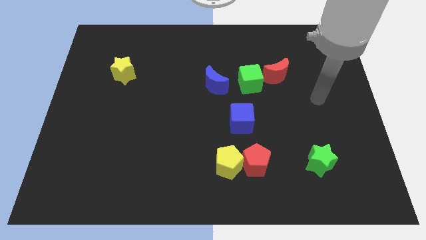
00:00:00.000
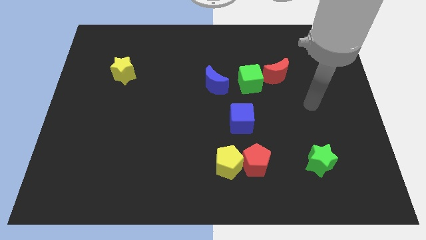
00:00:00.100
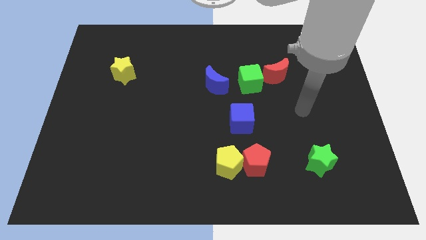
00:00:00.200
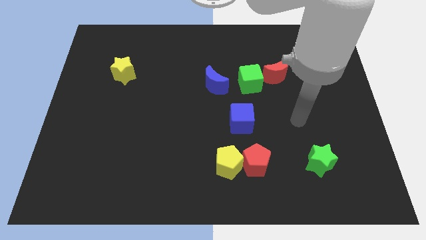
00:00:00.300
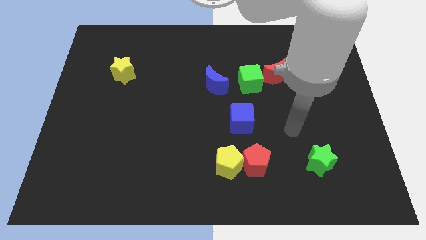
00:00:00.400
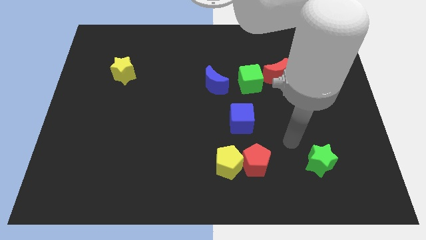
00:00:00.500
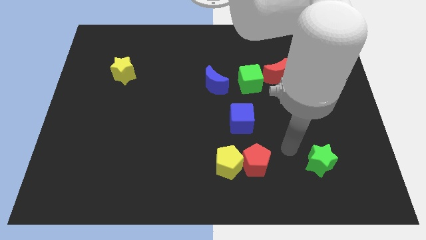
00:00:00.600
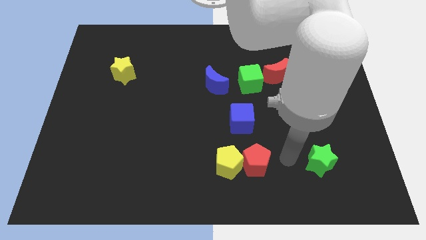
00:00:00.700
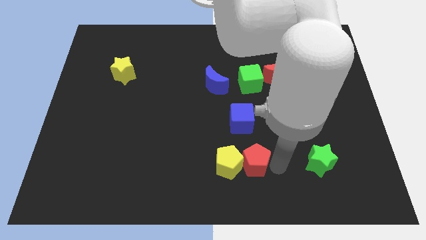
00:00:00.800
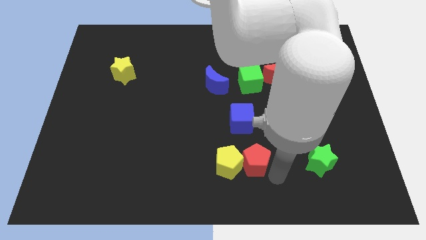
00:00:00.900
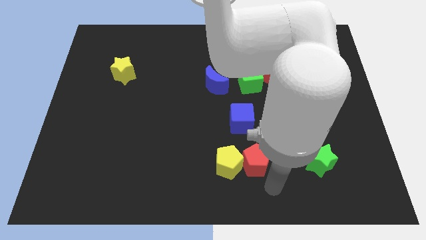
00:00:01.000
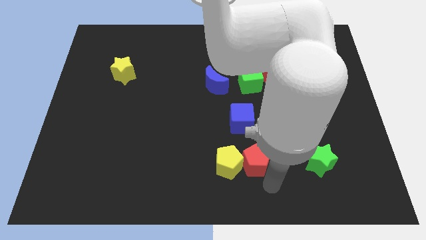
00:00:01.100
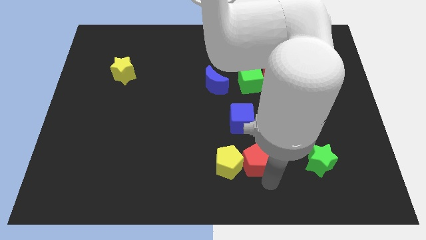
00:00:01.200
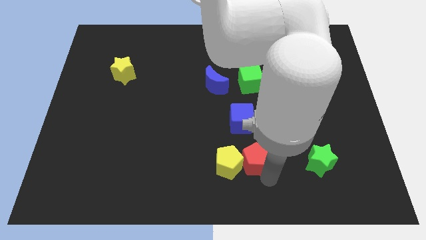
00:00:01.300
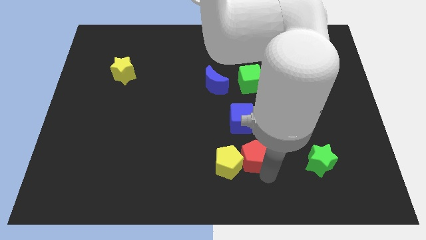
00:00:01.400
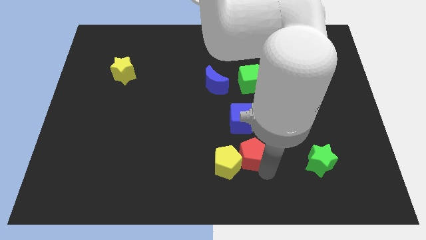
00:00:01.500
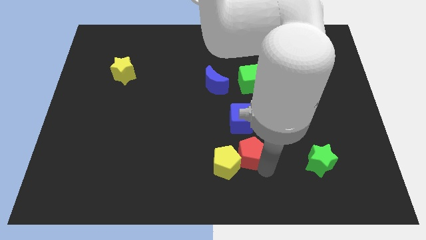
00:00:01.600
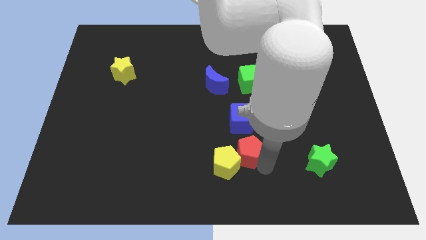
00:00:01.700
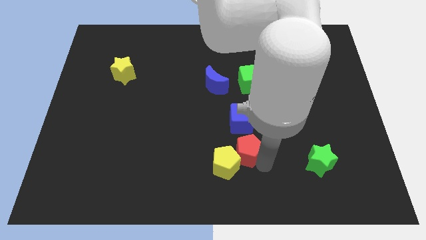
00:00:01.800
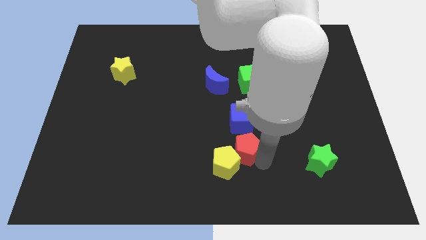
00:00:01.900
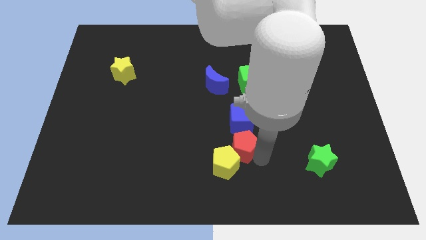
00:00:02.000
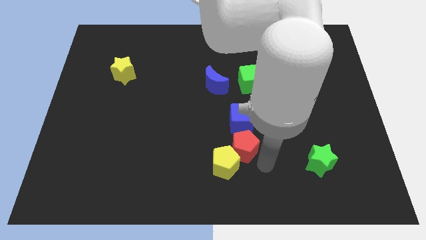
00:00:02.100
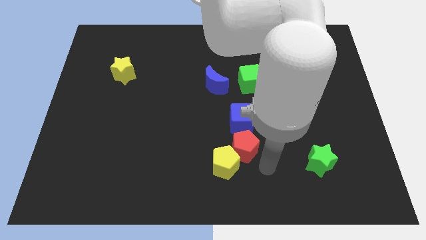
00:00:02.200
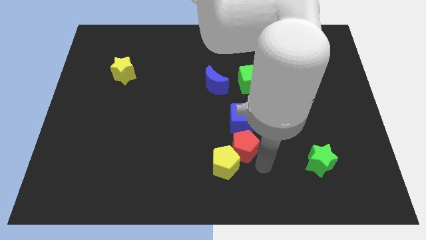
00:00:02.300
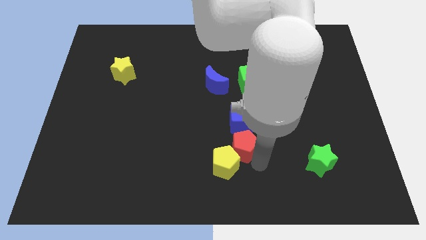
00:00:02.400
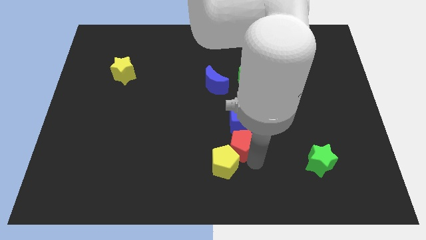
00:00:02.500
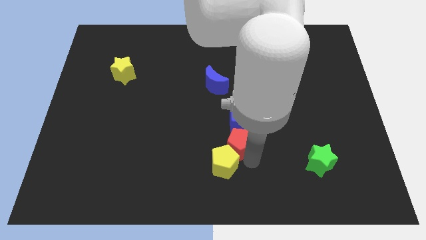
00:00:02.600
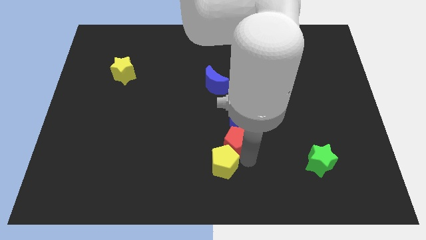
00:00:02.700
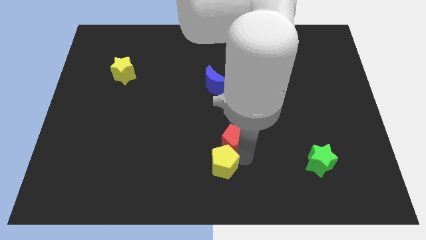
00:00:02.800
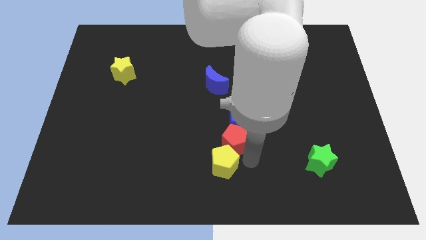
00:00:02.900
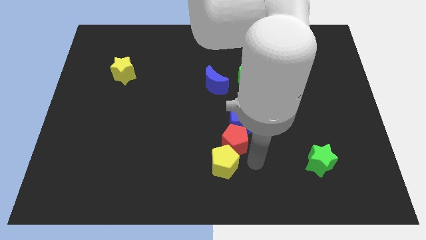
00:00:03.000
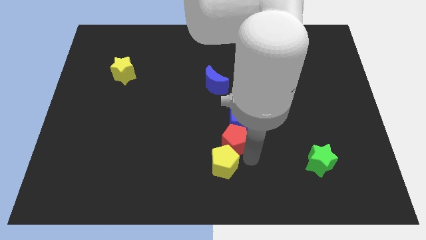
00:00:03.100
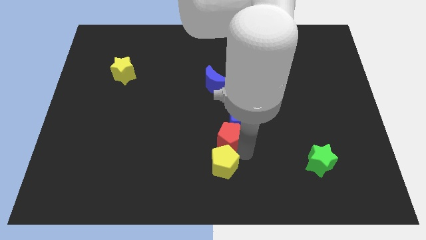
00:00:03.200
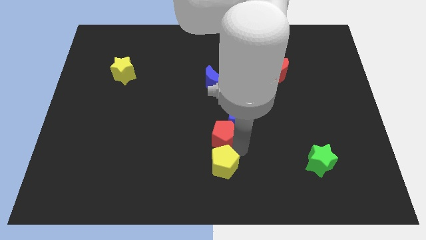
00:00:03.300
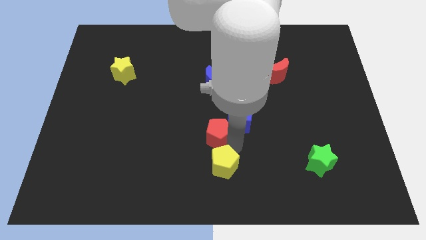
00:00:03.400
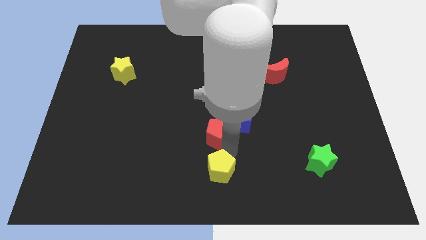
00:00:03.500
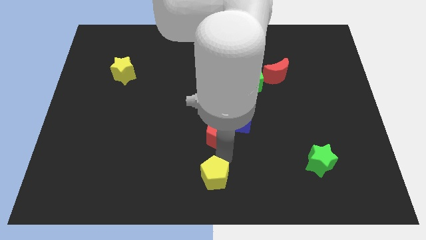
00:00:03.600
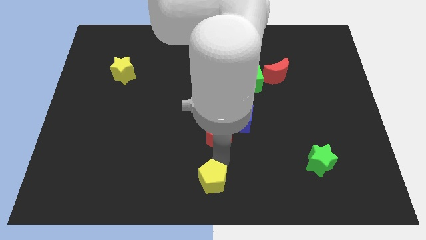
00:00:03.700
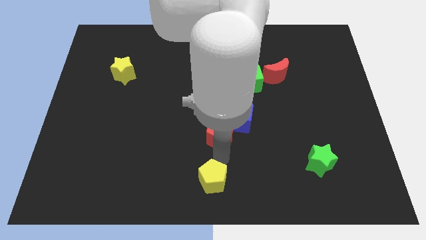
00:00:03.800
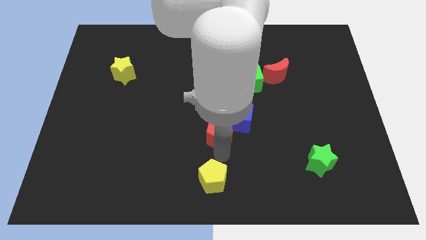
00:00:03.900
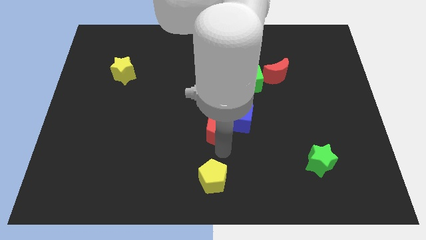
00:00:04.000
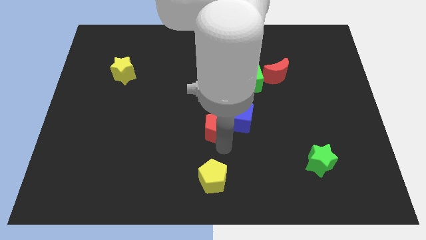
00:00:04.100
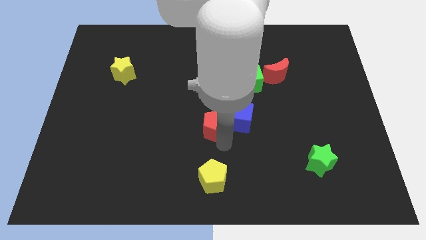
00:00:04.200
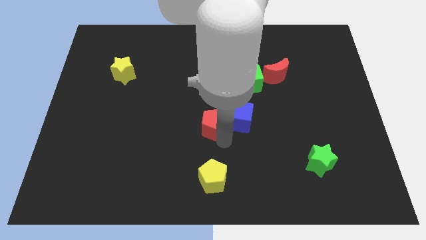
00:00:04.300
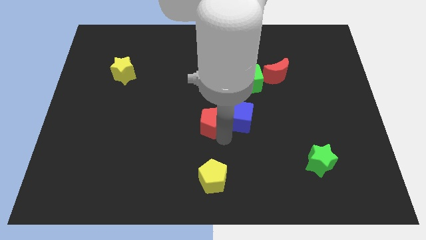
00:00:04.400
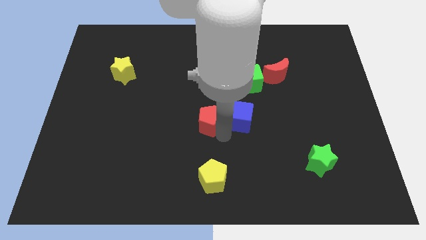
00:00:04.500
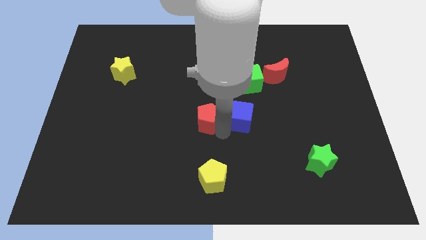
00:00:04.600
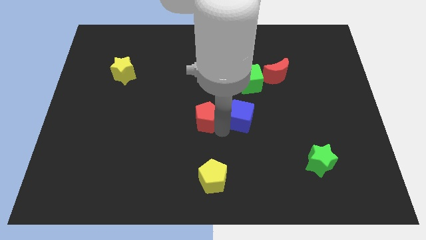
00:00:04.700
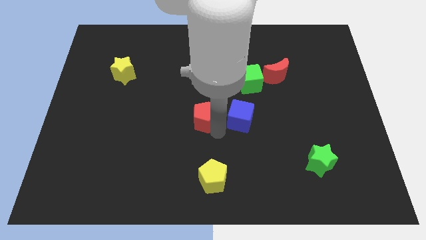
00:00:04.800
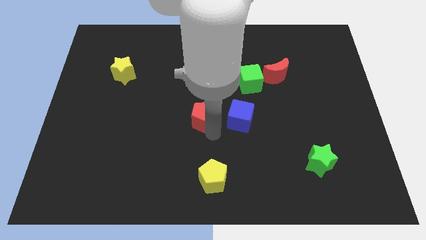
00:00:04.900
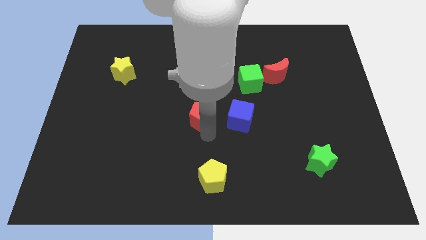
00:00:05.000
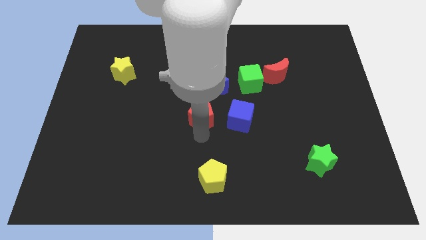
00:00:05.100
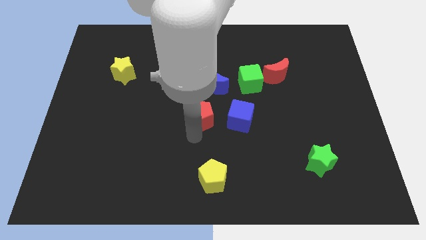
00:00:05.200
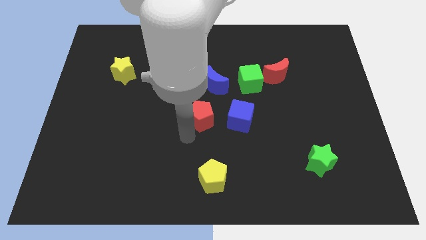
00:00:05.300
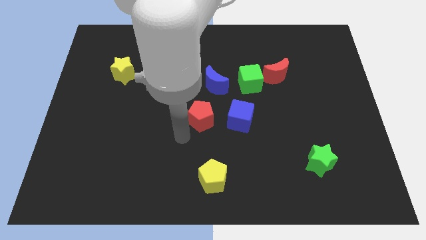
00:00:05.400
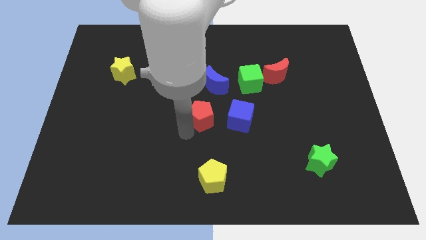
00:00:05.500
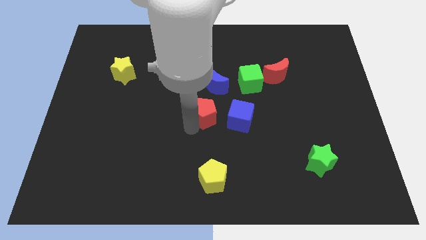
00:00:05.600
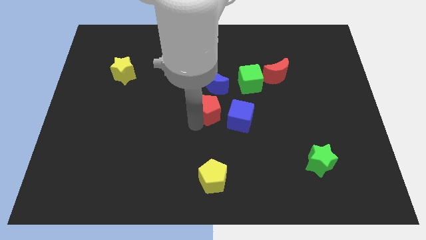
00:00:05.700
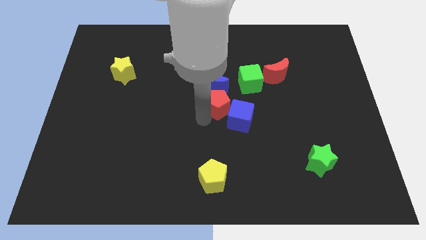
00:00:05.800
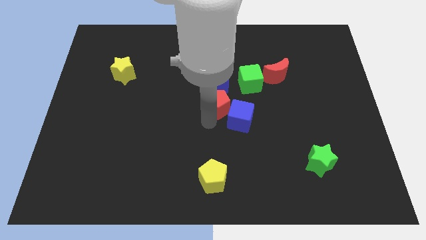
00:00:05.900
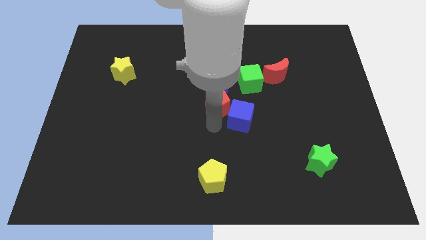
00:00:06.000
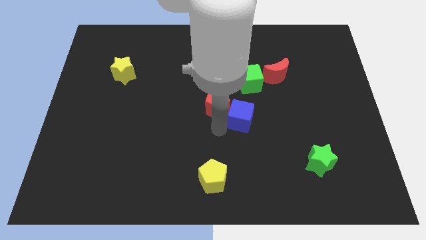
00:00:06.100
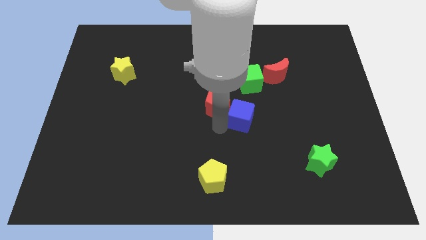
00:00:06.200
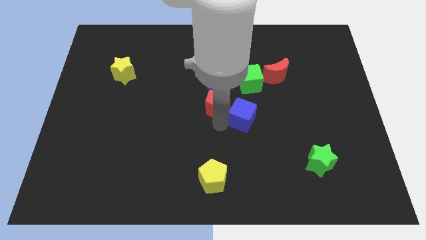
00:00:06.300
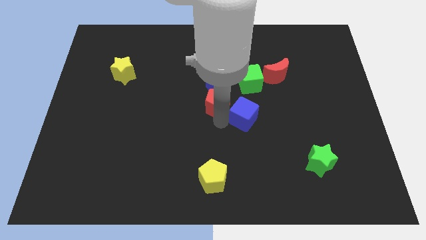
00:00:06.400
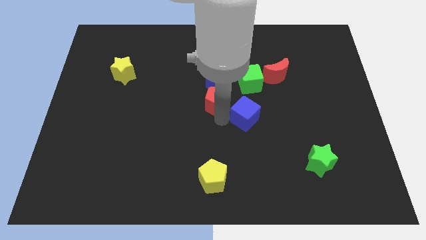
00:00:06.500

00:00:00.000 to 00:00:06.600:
slide the red pentagon close to the blue moon
